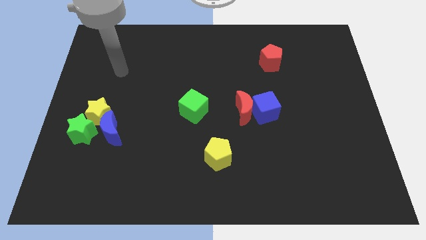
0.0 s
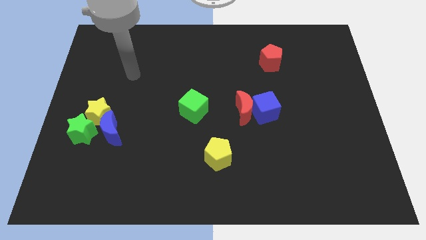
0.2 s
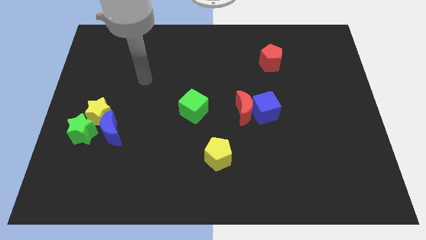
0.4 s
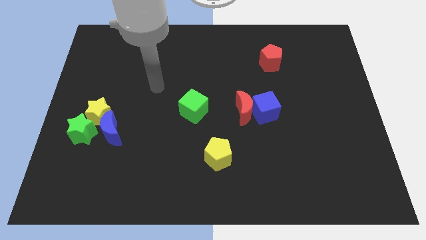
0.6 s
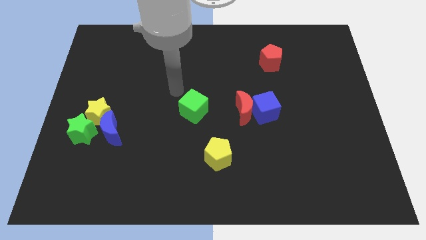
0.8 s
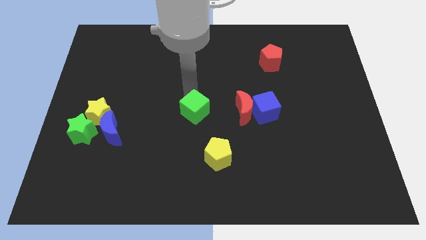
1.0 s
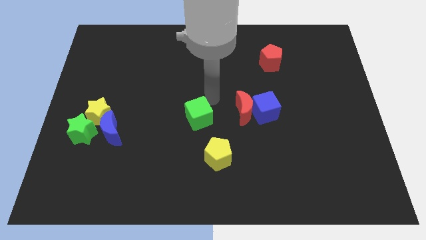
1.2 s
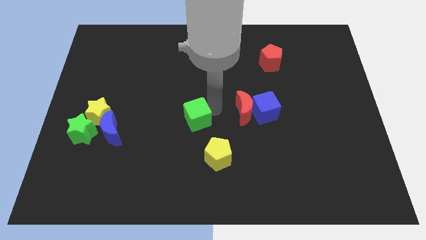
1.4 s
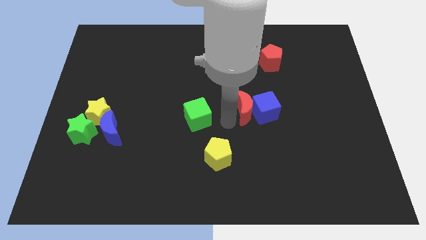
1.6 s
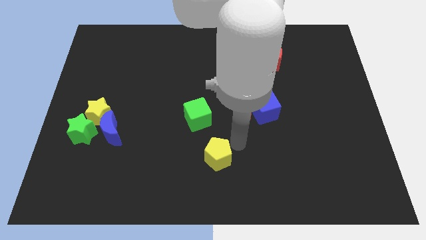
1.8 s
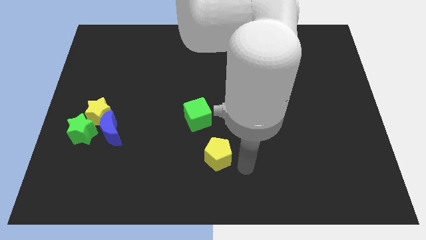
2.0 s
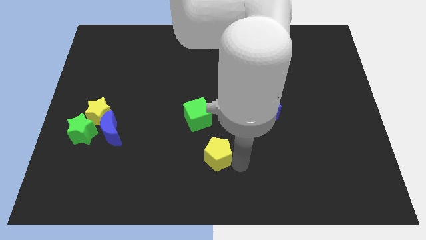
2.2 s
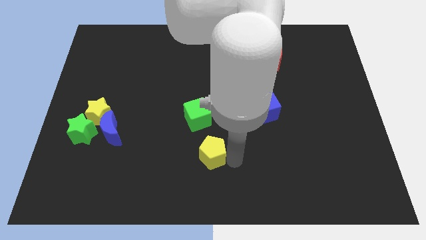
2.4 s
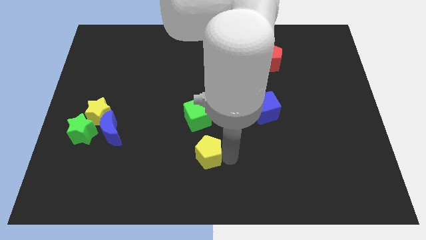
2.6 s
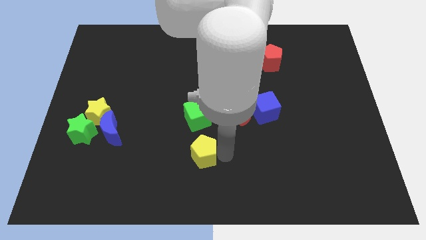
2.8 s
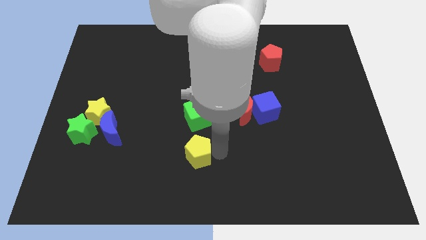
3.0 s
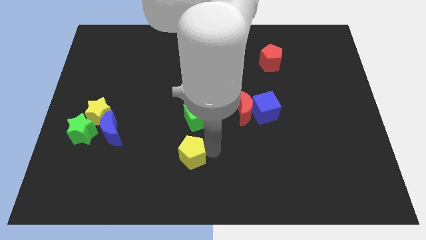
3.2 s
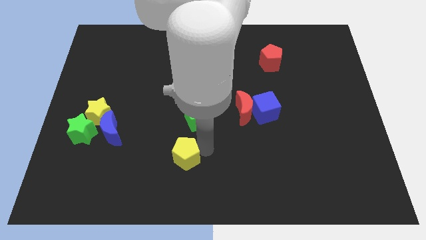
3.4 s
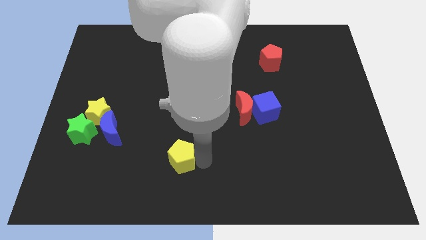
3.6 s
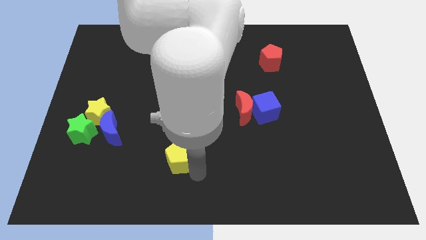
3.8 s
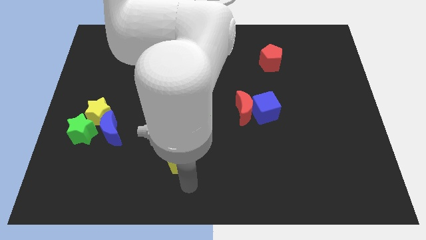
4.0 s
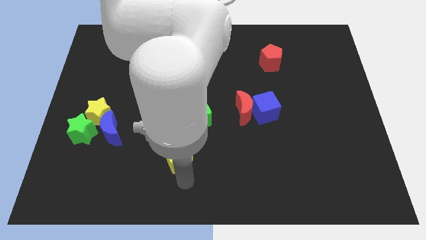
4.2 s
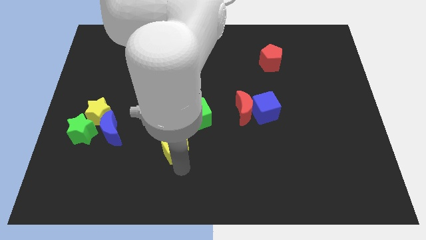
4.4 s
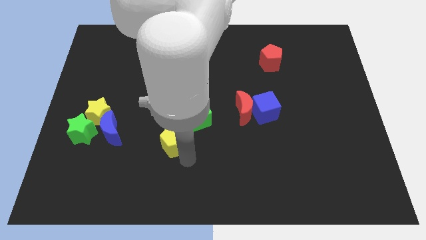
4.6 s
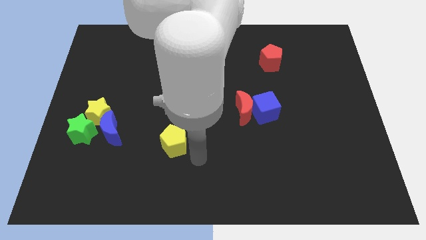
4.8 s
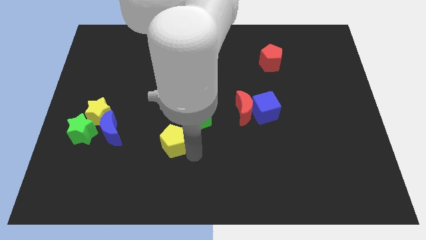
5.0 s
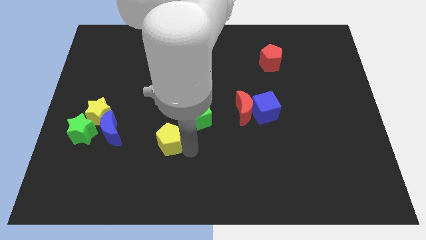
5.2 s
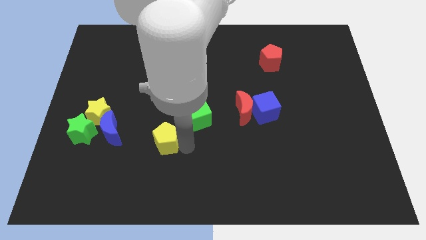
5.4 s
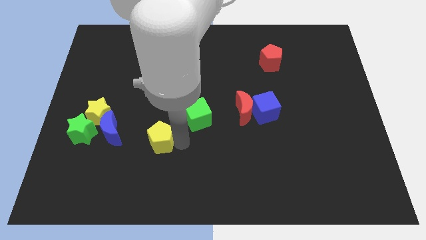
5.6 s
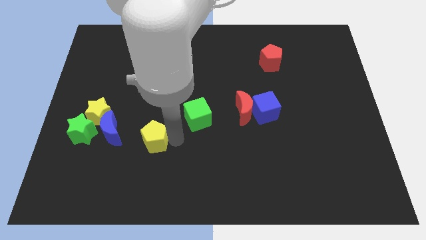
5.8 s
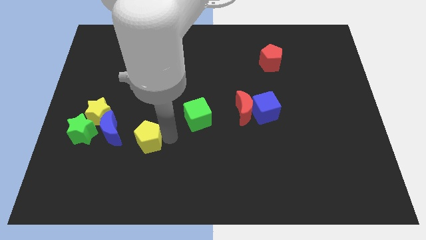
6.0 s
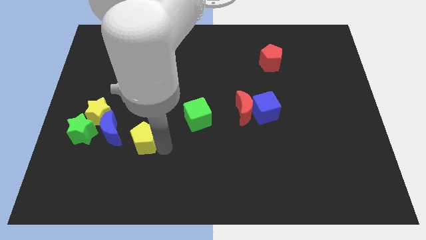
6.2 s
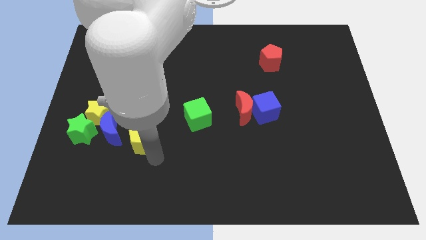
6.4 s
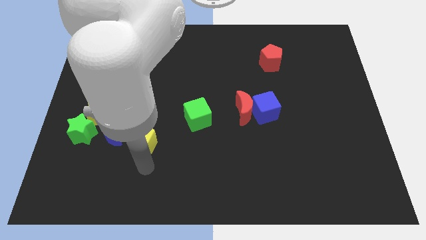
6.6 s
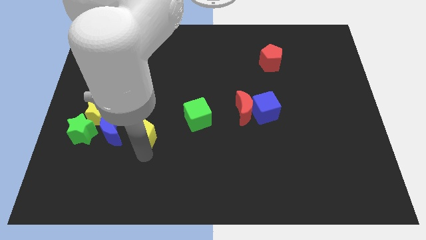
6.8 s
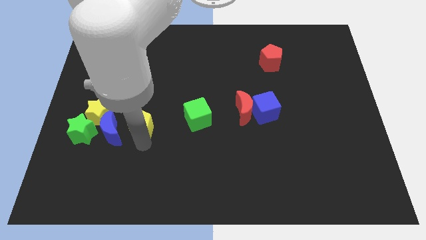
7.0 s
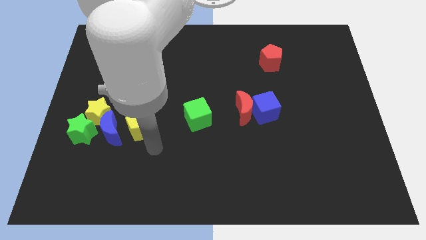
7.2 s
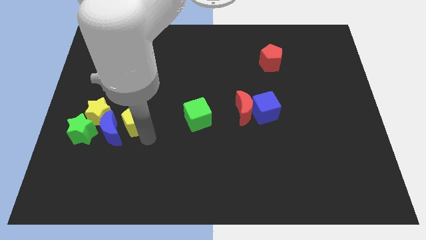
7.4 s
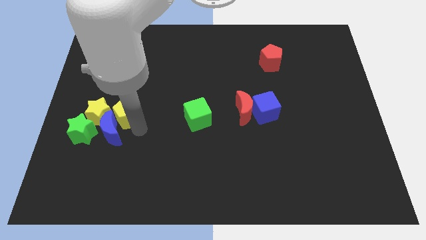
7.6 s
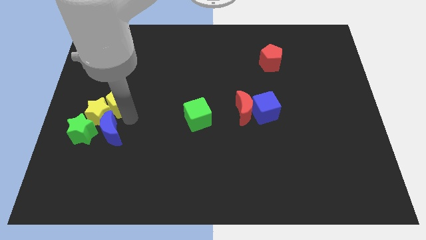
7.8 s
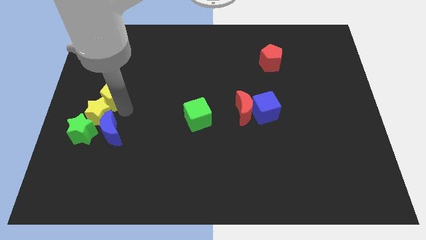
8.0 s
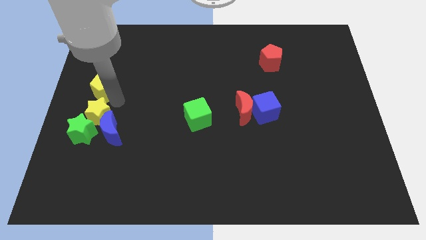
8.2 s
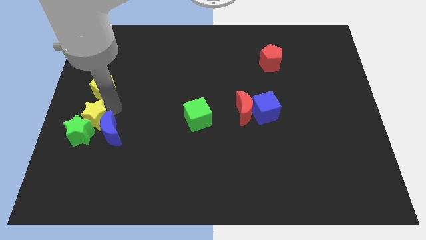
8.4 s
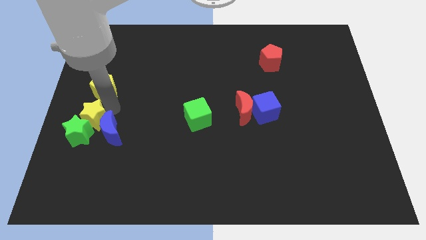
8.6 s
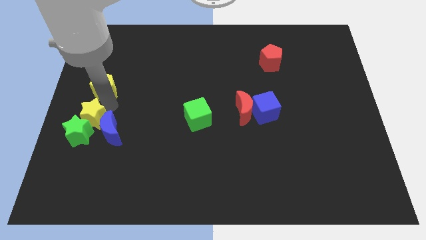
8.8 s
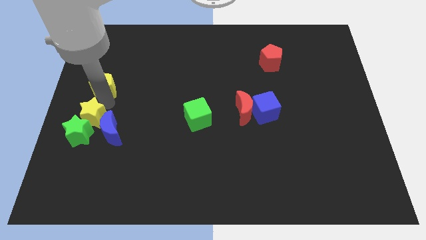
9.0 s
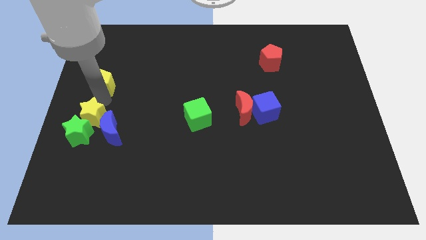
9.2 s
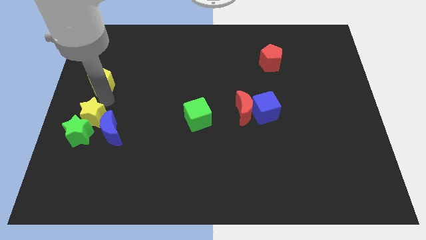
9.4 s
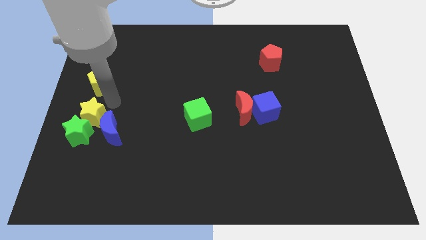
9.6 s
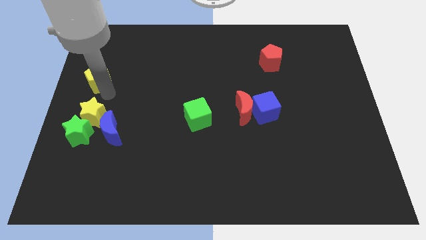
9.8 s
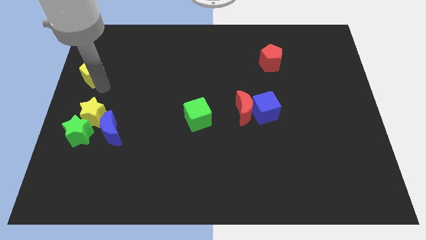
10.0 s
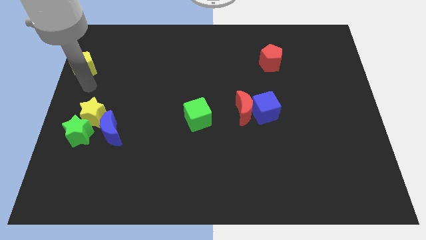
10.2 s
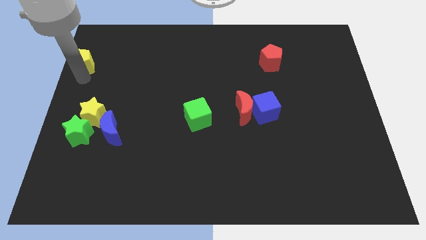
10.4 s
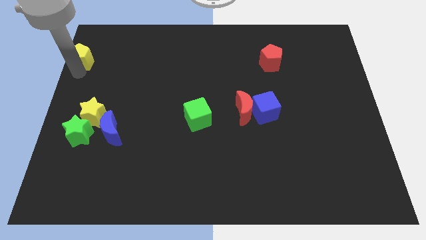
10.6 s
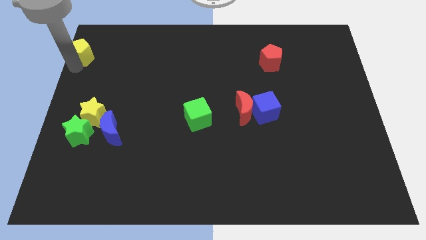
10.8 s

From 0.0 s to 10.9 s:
put the yellow pentagon to the upper left corner

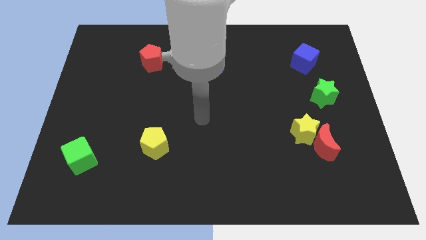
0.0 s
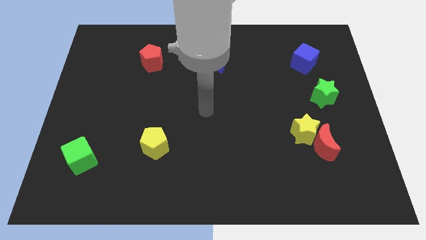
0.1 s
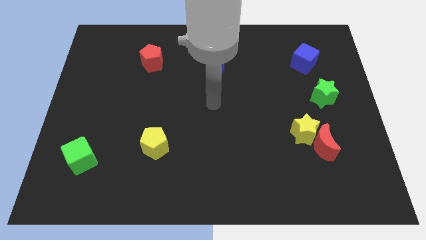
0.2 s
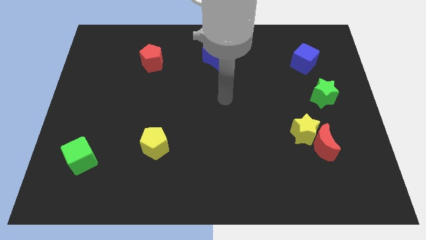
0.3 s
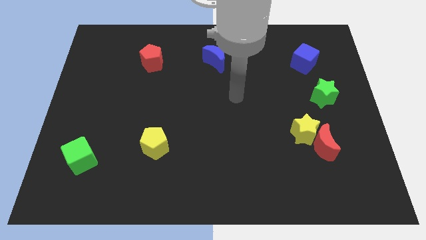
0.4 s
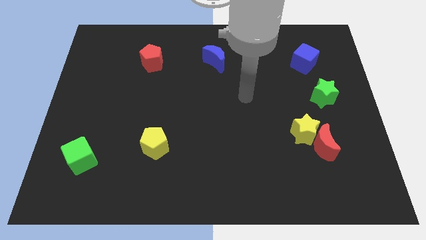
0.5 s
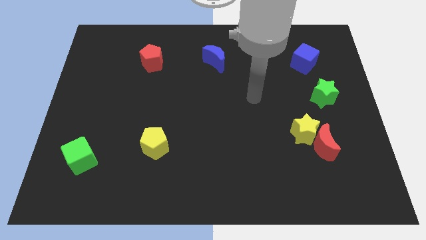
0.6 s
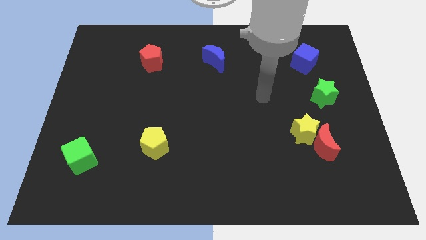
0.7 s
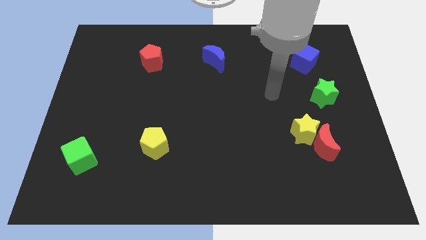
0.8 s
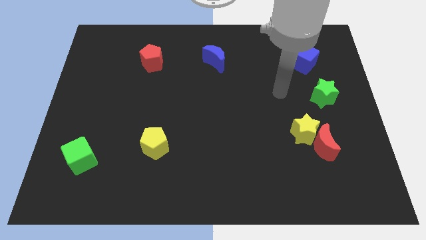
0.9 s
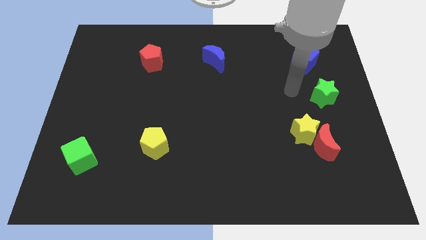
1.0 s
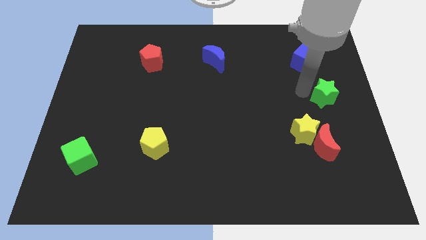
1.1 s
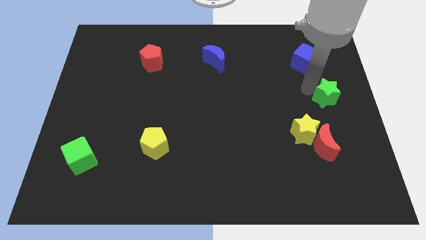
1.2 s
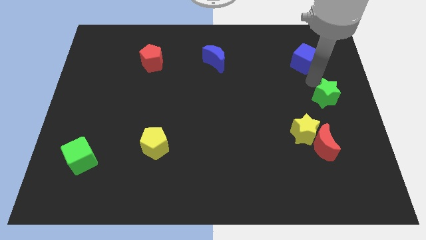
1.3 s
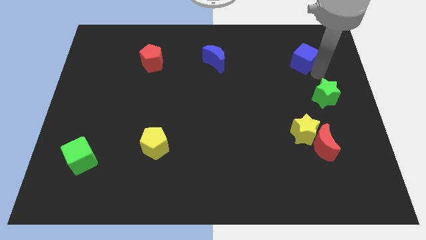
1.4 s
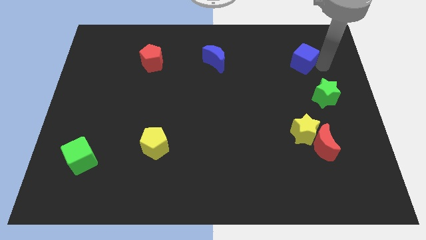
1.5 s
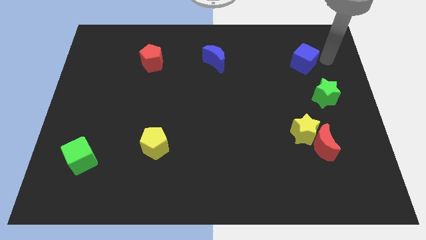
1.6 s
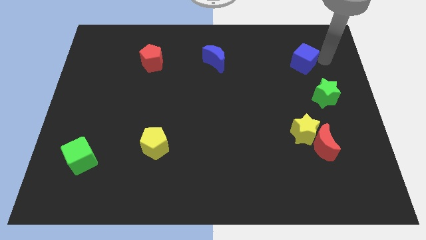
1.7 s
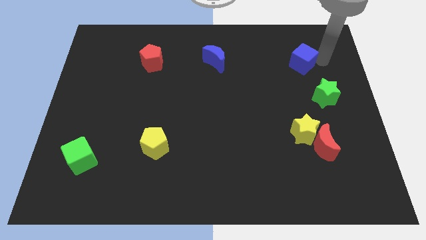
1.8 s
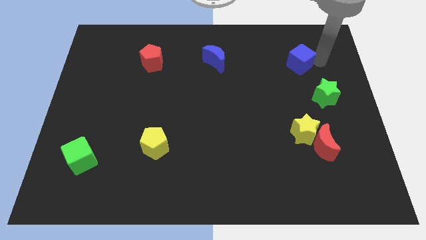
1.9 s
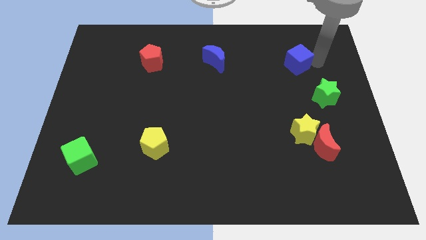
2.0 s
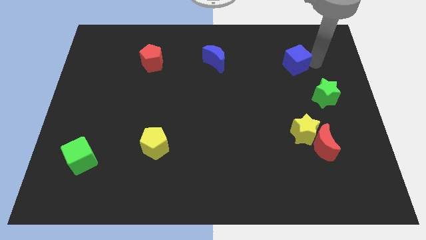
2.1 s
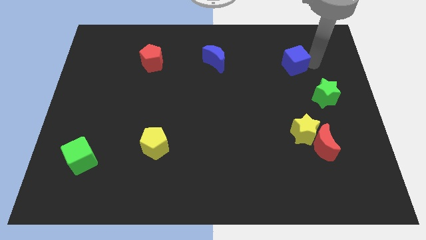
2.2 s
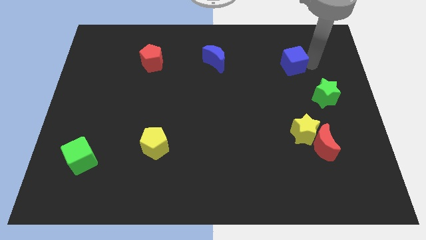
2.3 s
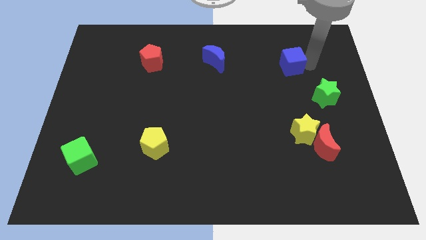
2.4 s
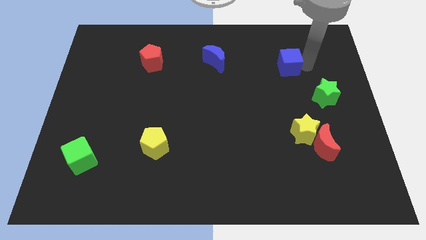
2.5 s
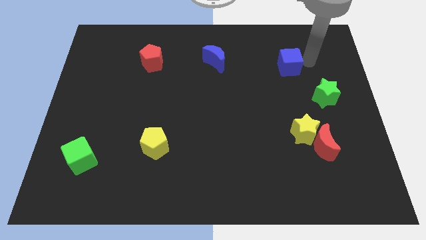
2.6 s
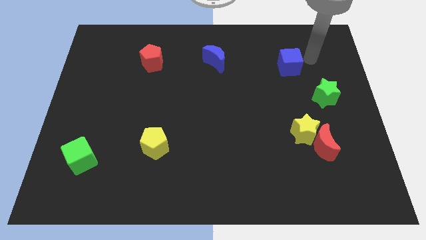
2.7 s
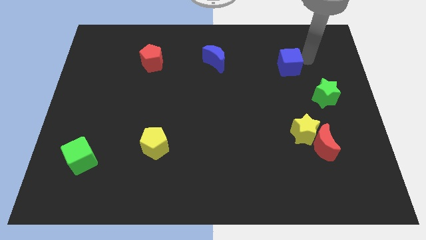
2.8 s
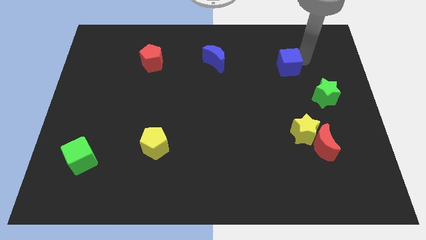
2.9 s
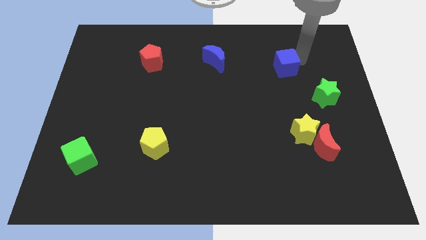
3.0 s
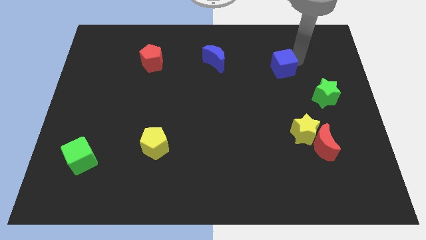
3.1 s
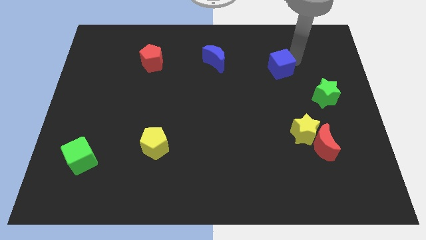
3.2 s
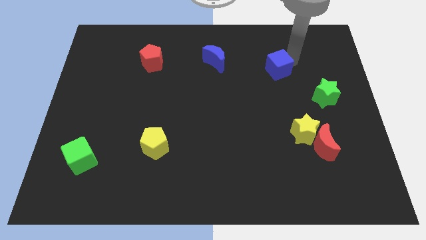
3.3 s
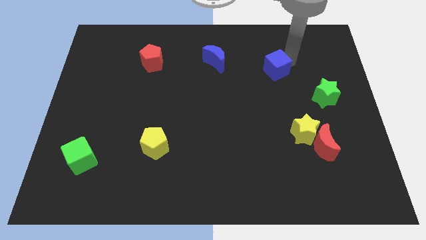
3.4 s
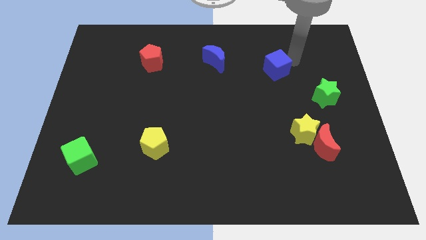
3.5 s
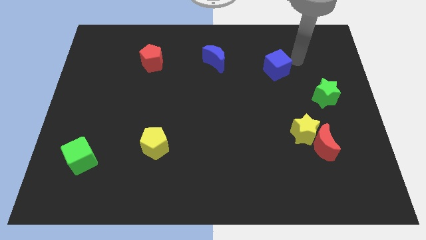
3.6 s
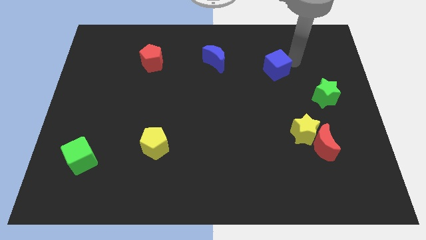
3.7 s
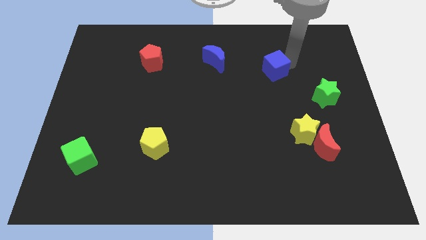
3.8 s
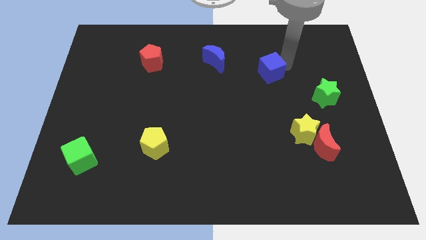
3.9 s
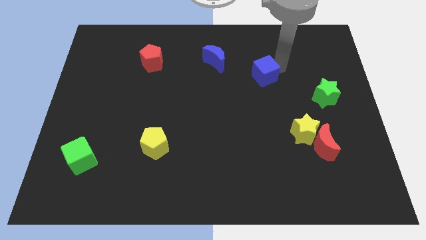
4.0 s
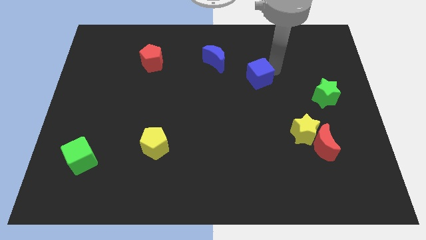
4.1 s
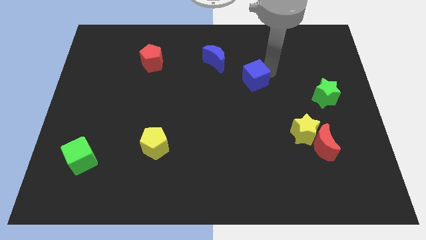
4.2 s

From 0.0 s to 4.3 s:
push the blue cube to the middle of the board
